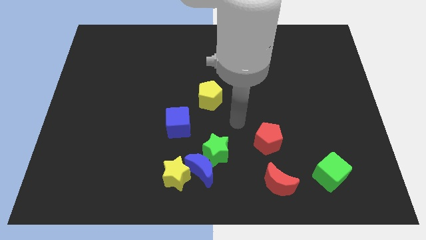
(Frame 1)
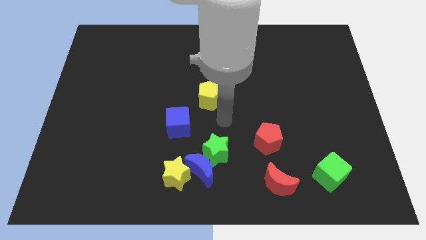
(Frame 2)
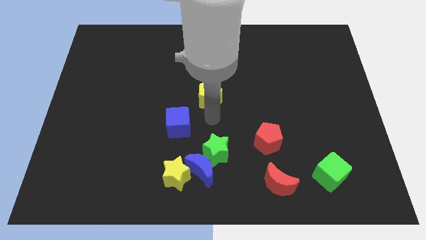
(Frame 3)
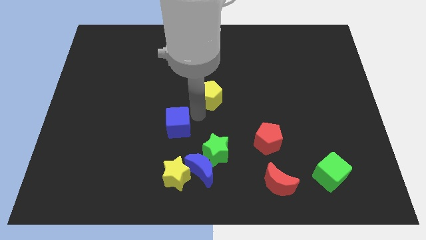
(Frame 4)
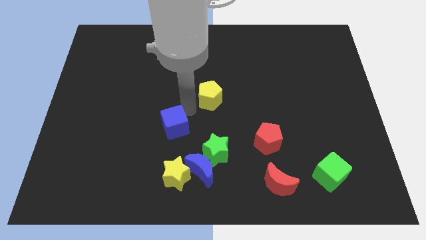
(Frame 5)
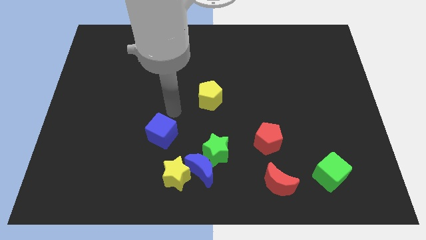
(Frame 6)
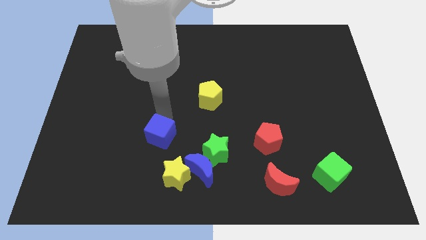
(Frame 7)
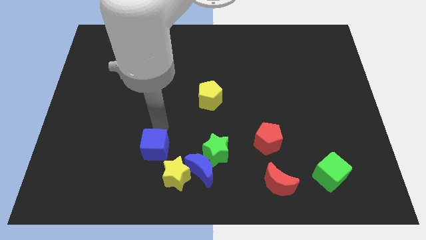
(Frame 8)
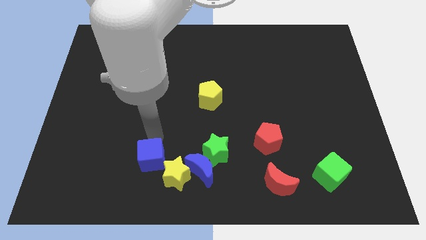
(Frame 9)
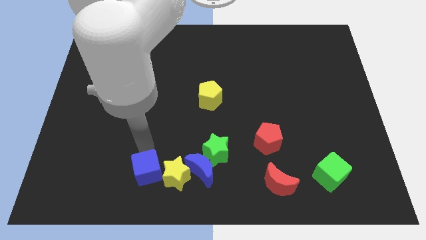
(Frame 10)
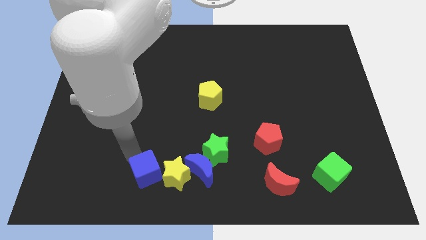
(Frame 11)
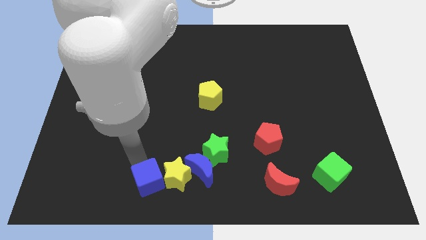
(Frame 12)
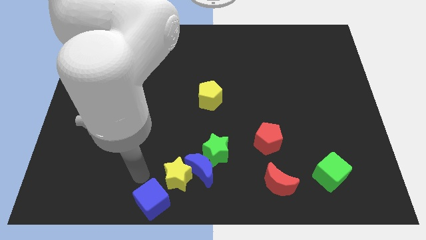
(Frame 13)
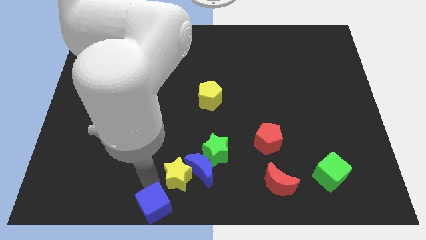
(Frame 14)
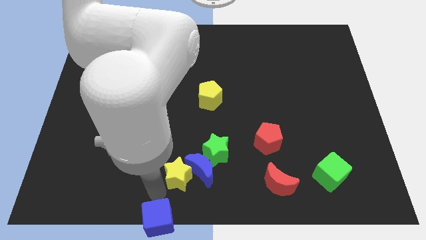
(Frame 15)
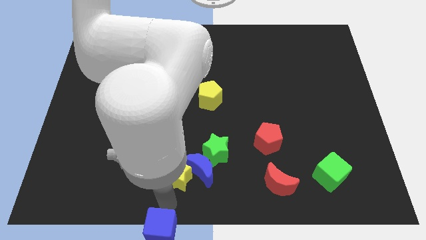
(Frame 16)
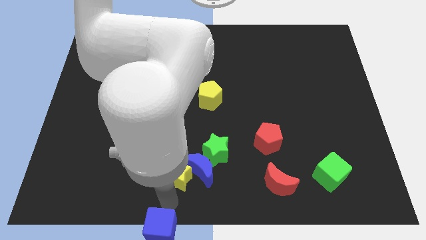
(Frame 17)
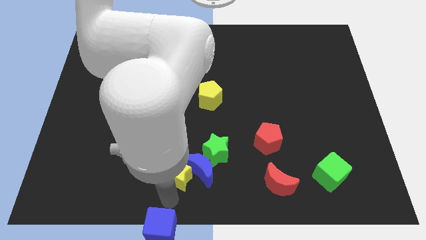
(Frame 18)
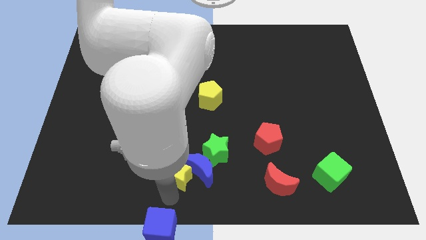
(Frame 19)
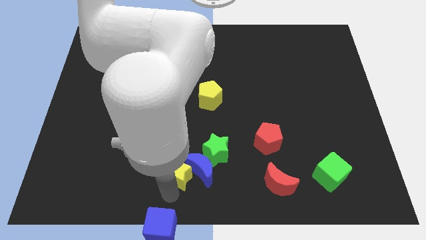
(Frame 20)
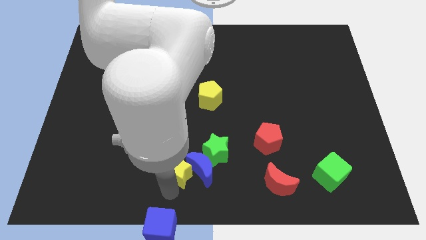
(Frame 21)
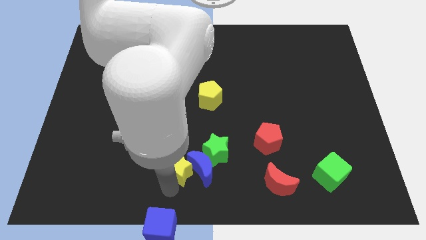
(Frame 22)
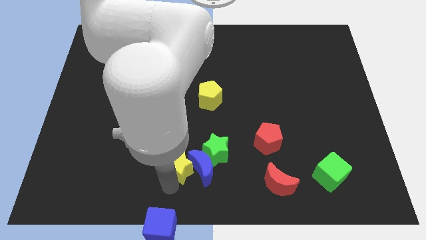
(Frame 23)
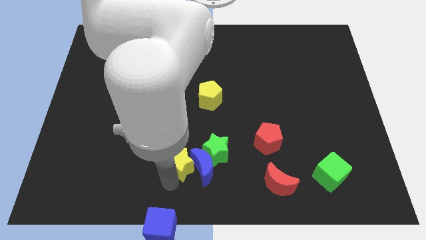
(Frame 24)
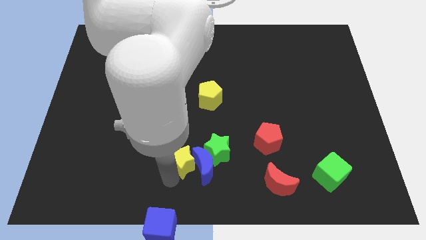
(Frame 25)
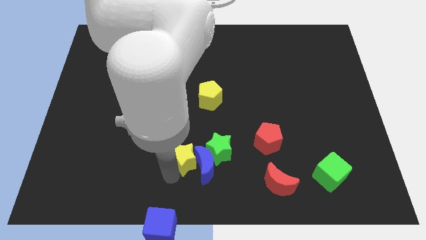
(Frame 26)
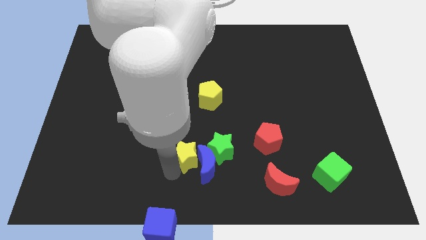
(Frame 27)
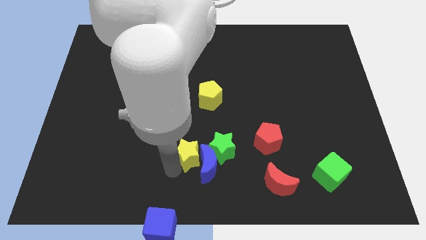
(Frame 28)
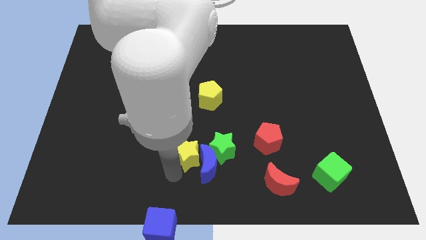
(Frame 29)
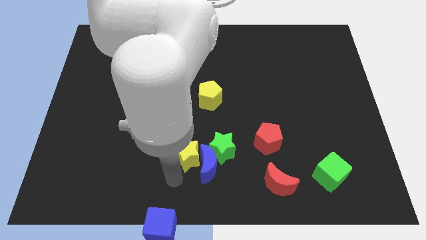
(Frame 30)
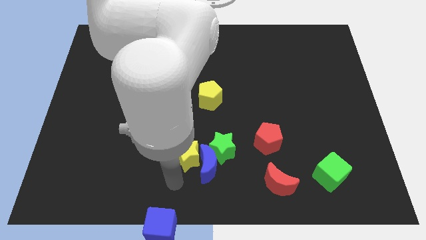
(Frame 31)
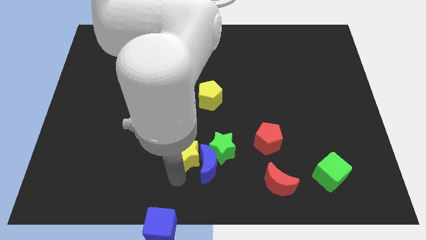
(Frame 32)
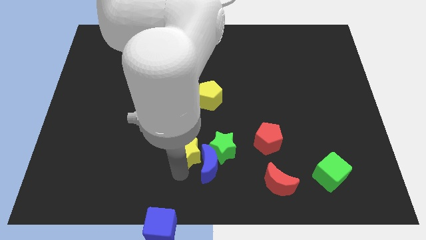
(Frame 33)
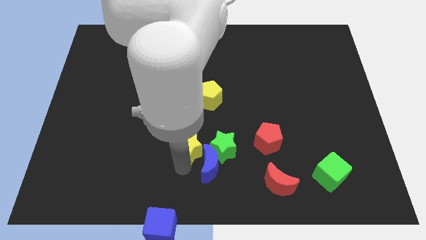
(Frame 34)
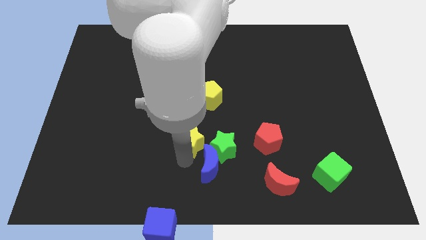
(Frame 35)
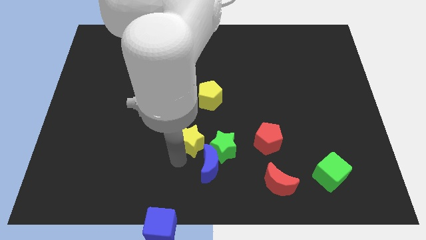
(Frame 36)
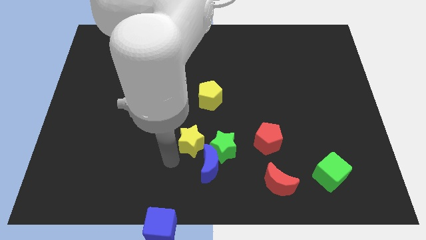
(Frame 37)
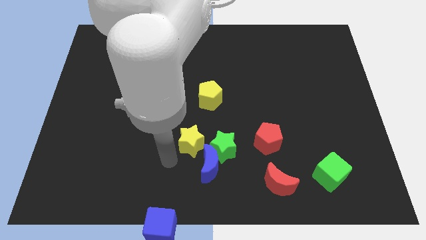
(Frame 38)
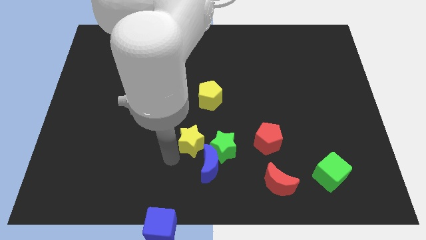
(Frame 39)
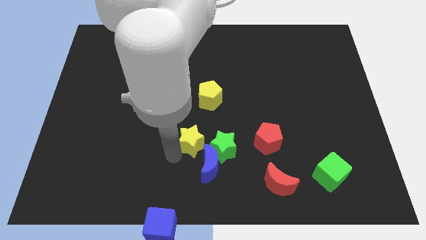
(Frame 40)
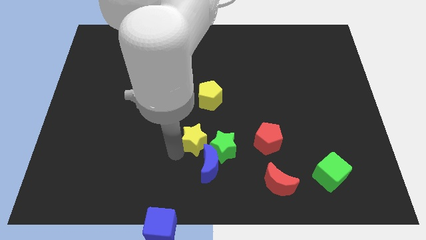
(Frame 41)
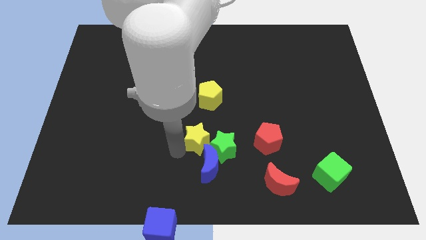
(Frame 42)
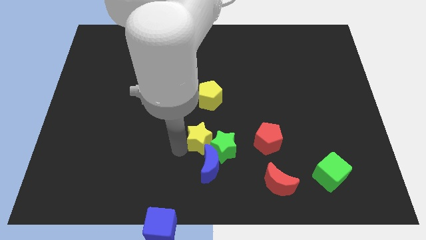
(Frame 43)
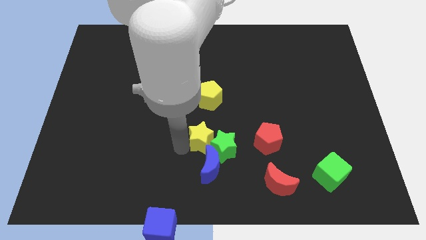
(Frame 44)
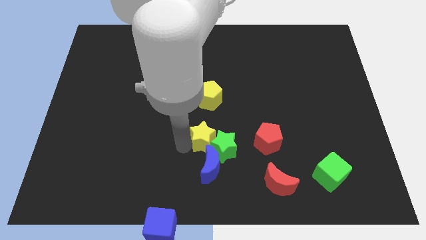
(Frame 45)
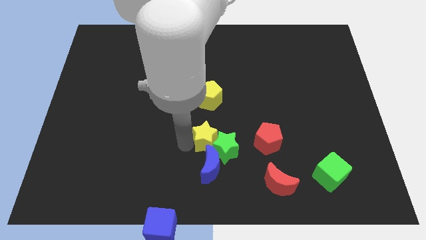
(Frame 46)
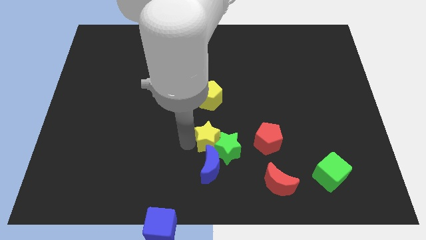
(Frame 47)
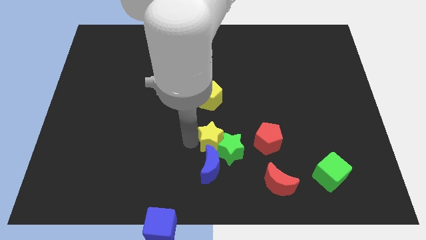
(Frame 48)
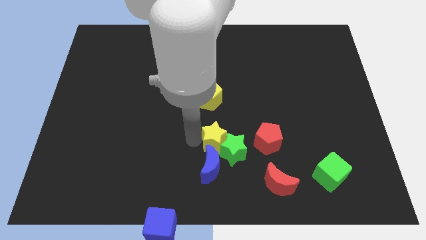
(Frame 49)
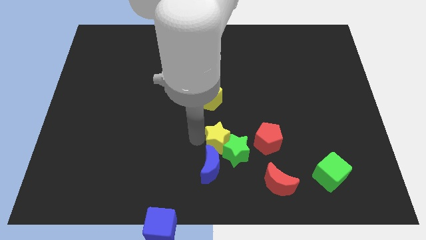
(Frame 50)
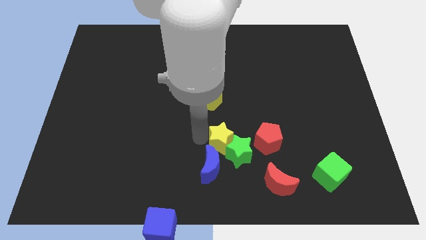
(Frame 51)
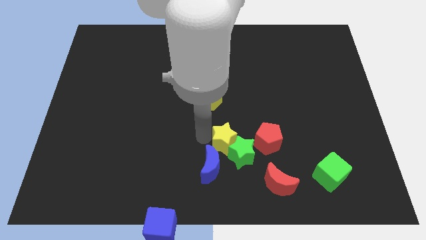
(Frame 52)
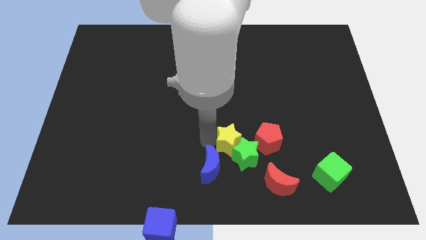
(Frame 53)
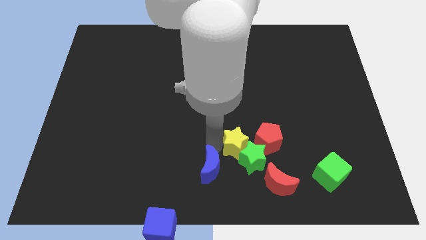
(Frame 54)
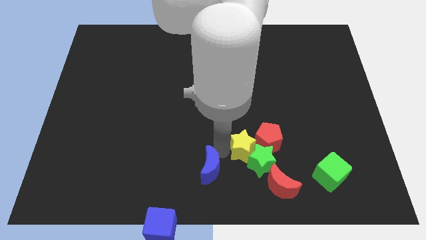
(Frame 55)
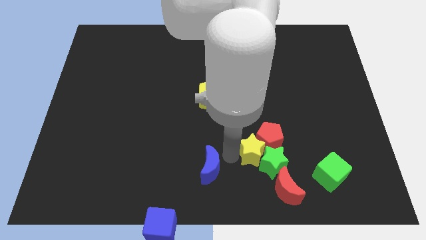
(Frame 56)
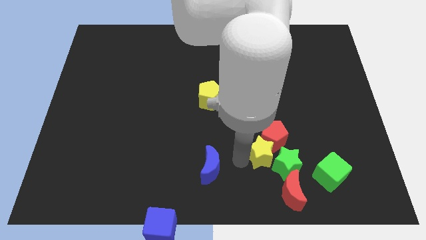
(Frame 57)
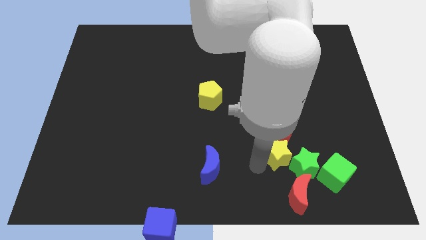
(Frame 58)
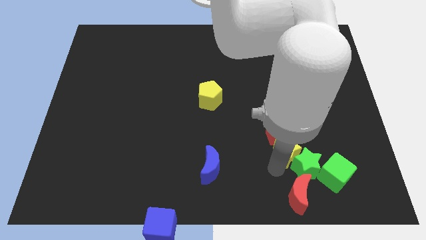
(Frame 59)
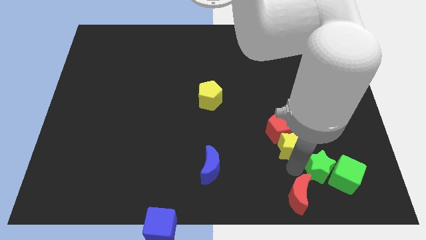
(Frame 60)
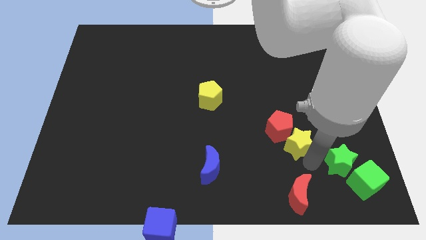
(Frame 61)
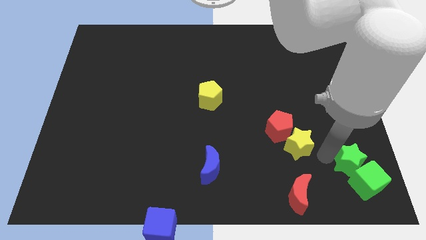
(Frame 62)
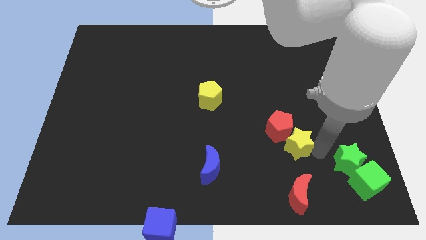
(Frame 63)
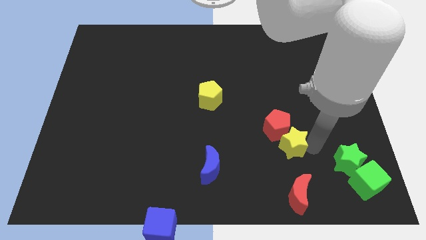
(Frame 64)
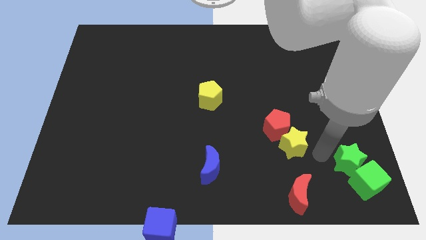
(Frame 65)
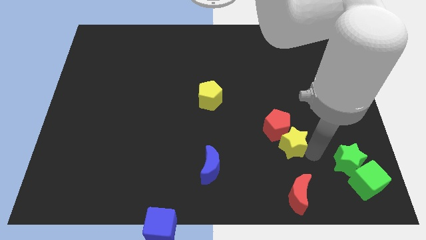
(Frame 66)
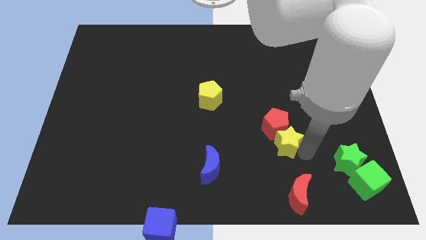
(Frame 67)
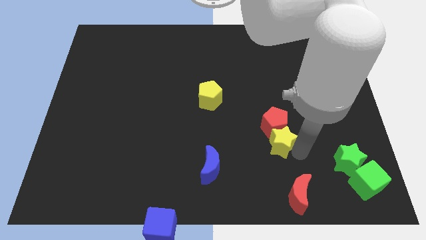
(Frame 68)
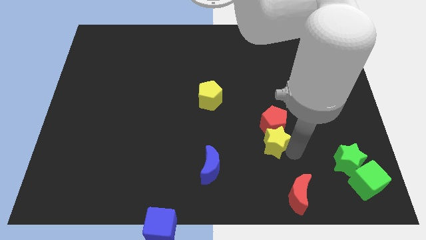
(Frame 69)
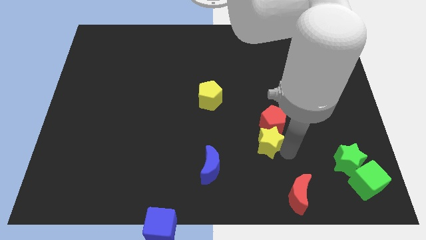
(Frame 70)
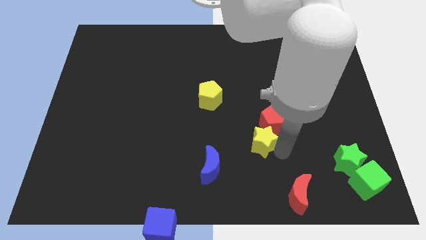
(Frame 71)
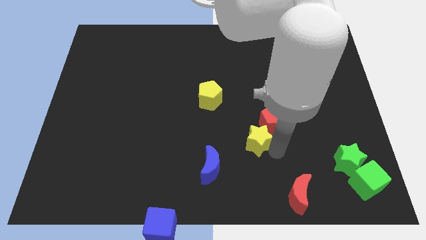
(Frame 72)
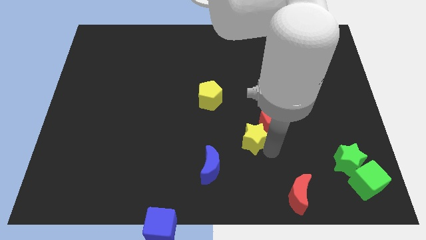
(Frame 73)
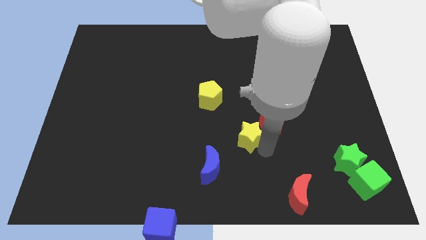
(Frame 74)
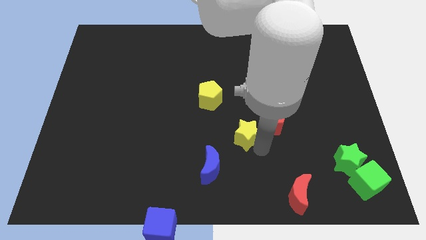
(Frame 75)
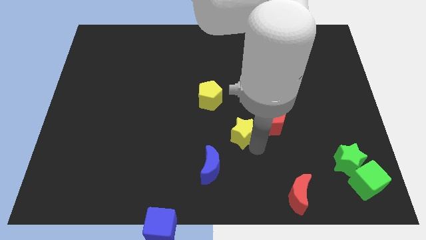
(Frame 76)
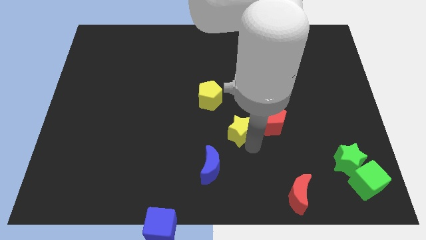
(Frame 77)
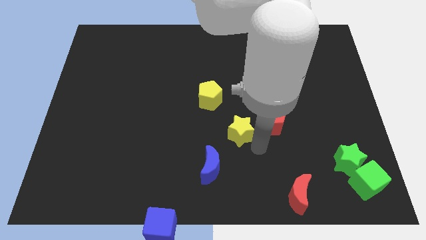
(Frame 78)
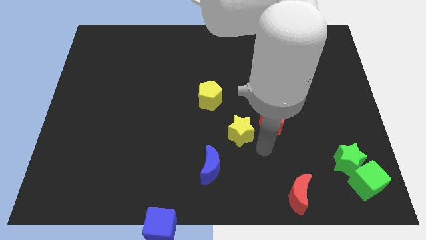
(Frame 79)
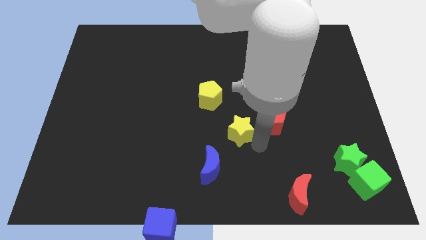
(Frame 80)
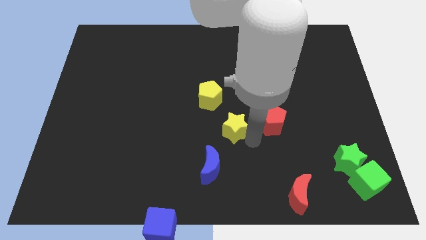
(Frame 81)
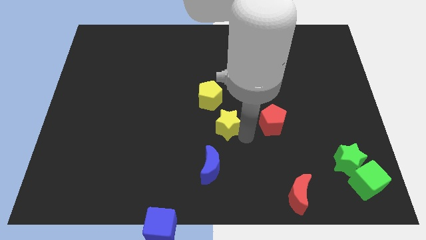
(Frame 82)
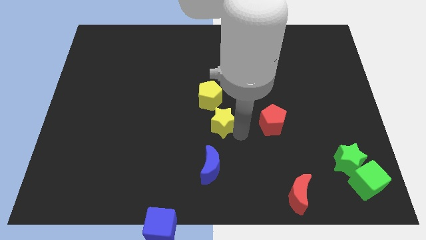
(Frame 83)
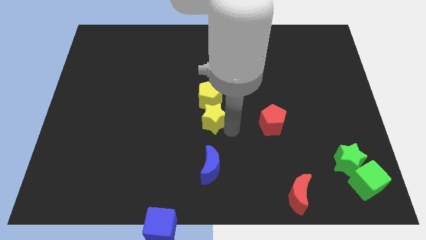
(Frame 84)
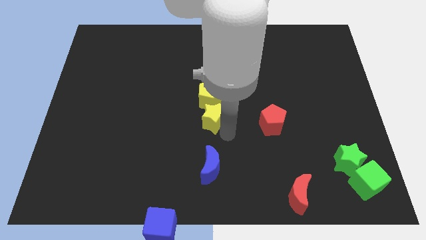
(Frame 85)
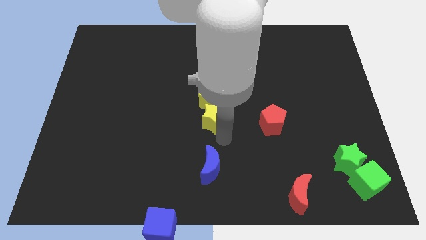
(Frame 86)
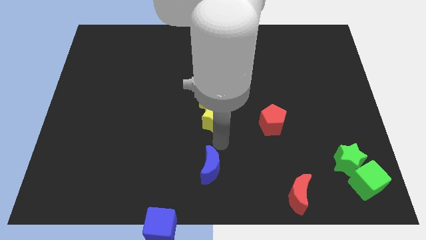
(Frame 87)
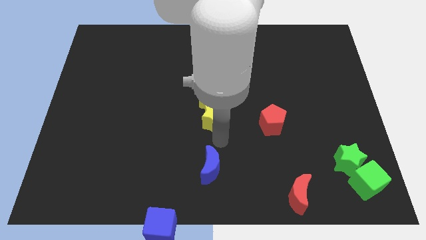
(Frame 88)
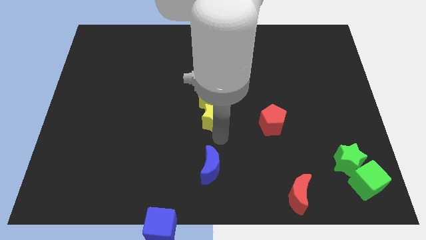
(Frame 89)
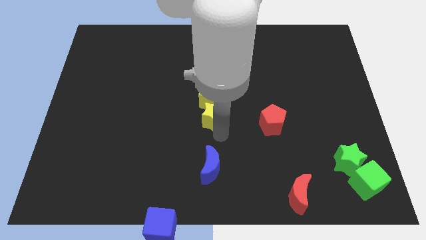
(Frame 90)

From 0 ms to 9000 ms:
slide the yellow star towards the yellow pentagon
